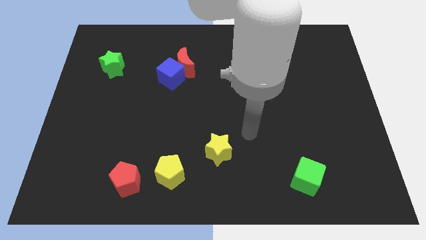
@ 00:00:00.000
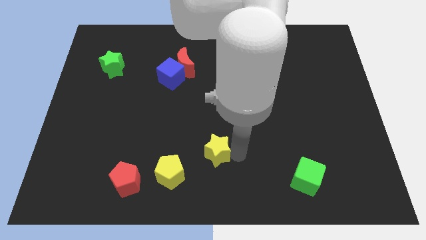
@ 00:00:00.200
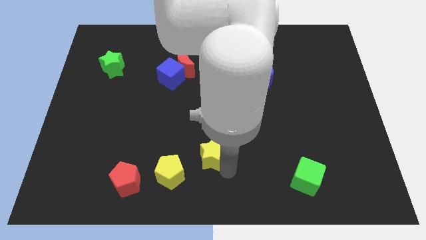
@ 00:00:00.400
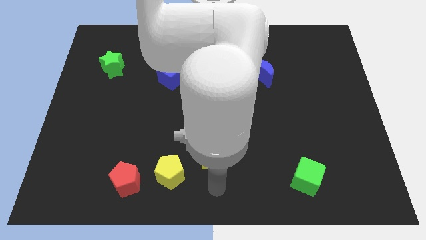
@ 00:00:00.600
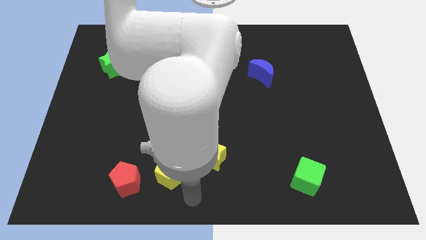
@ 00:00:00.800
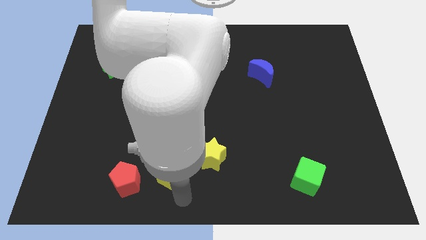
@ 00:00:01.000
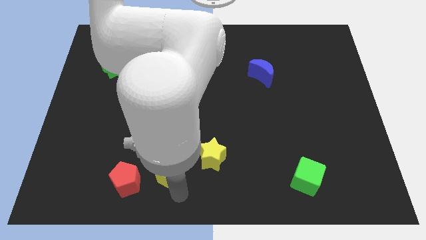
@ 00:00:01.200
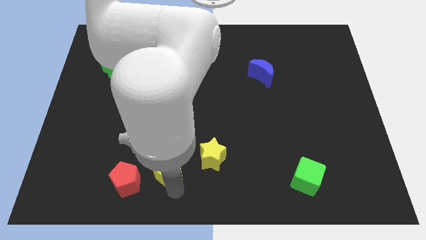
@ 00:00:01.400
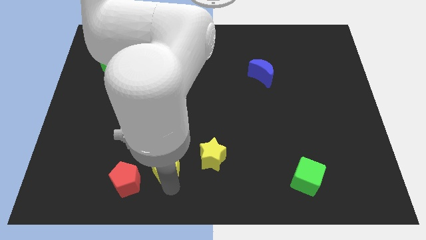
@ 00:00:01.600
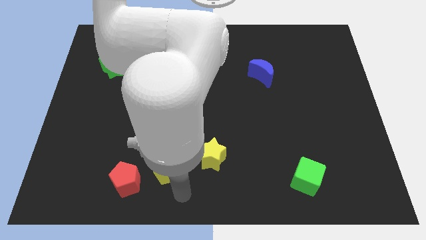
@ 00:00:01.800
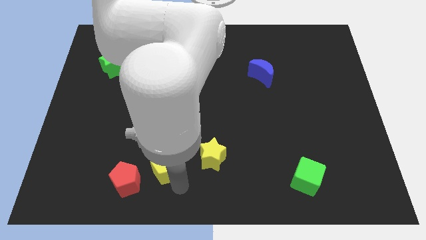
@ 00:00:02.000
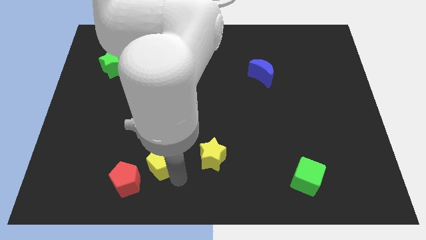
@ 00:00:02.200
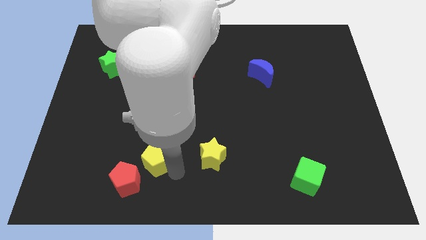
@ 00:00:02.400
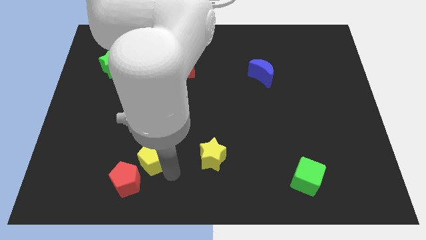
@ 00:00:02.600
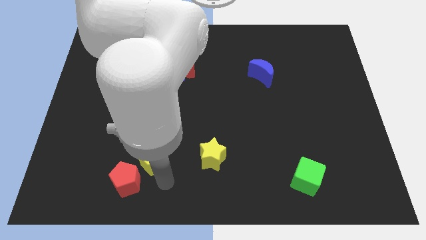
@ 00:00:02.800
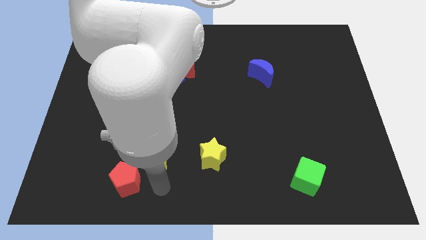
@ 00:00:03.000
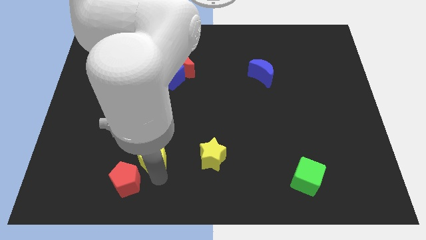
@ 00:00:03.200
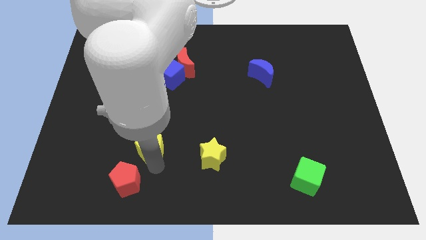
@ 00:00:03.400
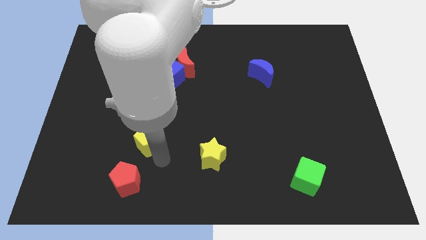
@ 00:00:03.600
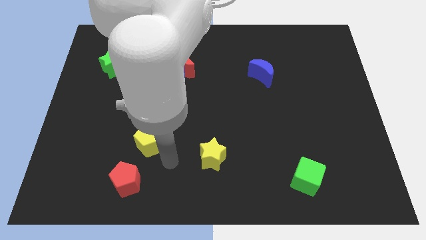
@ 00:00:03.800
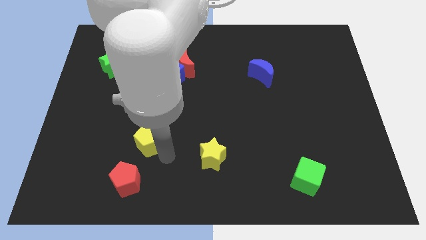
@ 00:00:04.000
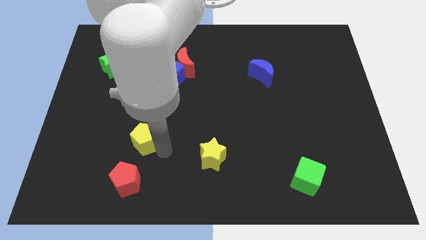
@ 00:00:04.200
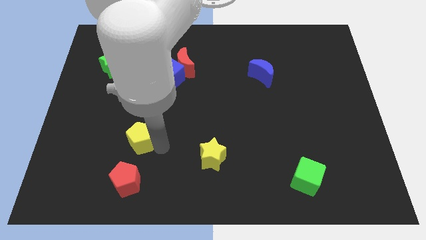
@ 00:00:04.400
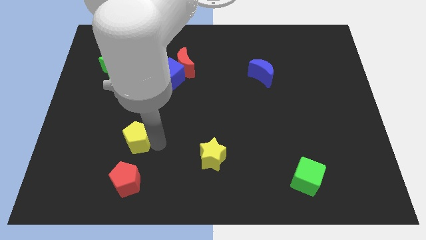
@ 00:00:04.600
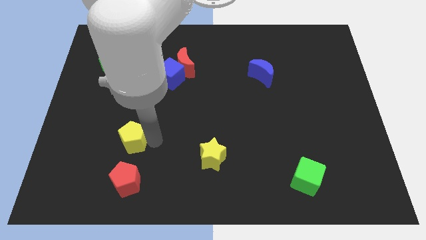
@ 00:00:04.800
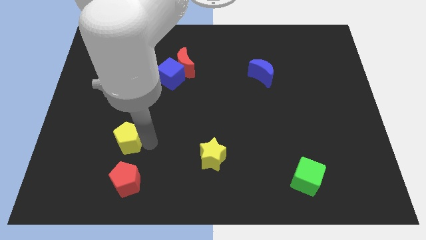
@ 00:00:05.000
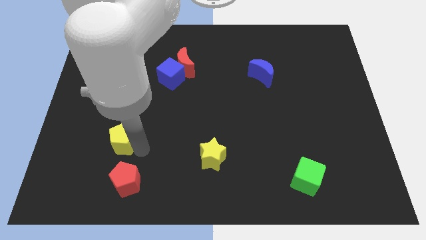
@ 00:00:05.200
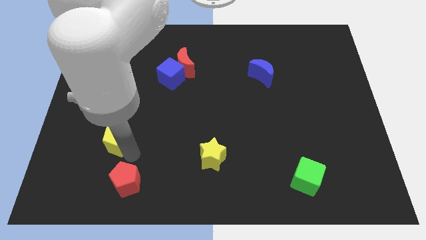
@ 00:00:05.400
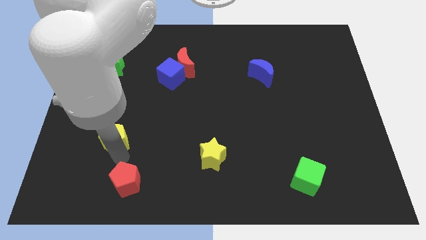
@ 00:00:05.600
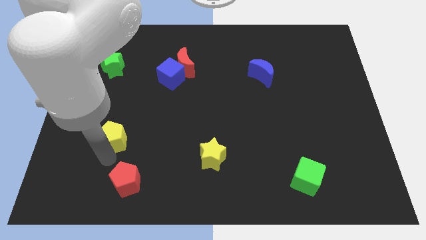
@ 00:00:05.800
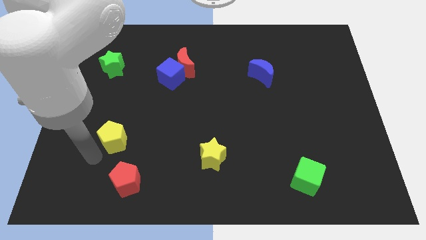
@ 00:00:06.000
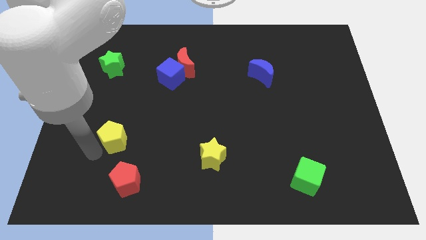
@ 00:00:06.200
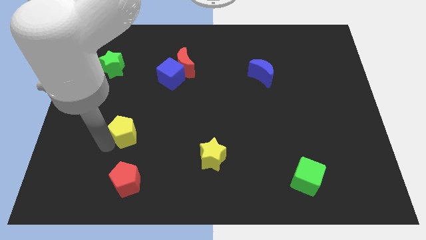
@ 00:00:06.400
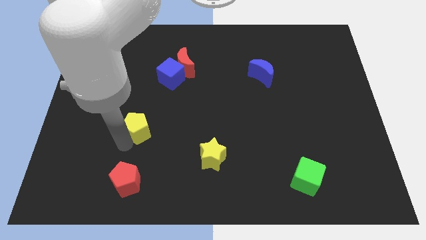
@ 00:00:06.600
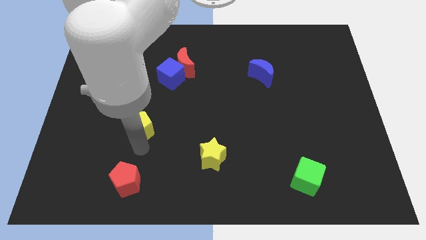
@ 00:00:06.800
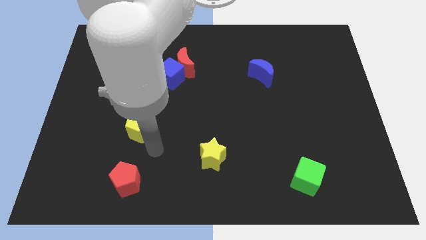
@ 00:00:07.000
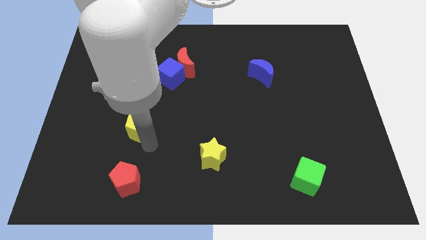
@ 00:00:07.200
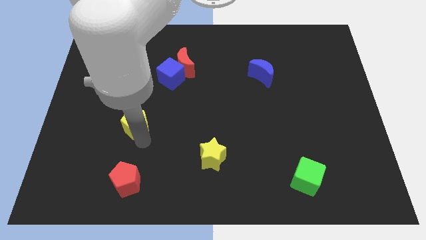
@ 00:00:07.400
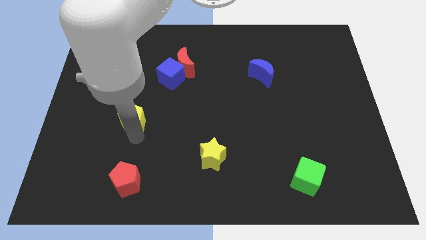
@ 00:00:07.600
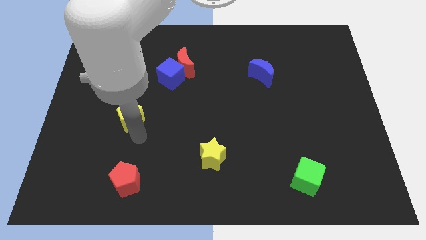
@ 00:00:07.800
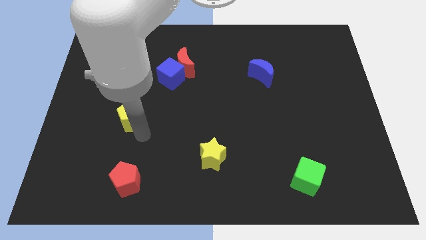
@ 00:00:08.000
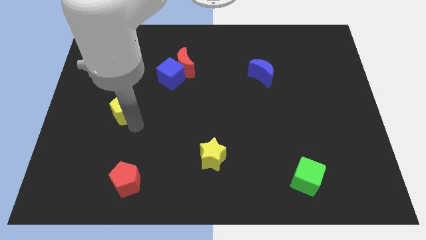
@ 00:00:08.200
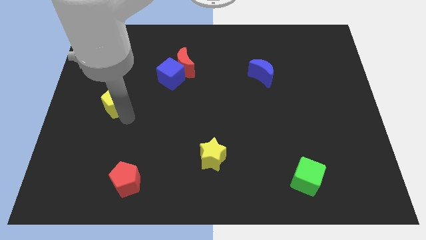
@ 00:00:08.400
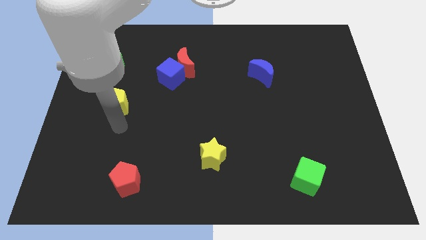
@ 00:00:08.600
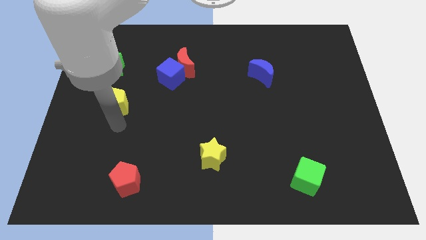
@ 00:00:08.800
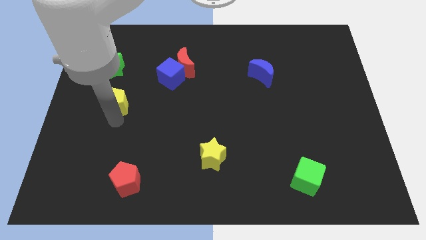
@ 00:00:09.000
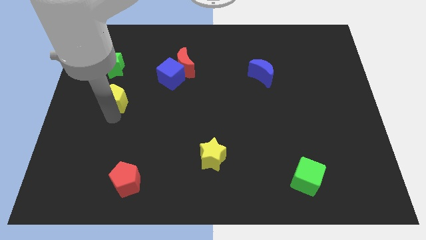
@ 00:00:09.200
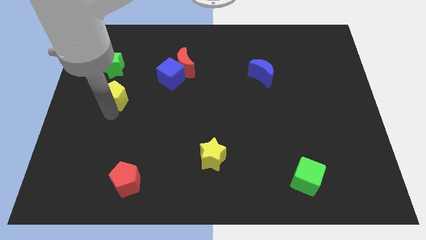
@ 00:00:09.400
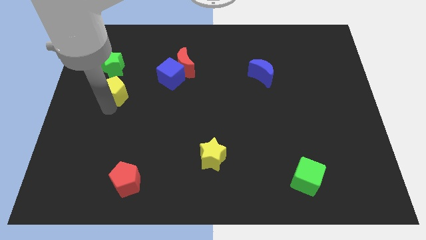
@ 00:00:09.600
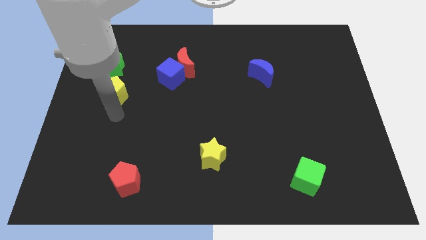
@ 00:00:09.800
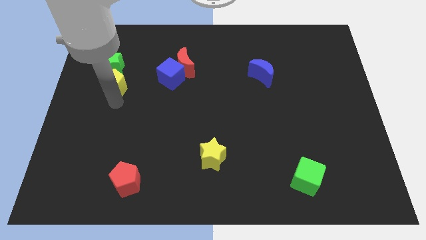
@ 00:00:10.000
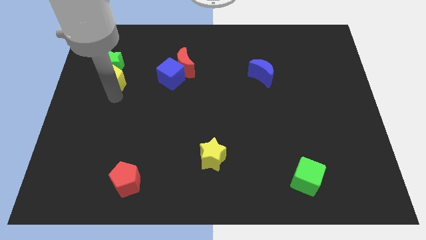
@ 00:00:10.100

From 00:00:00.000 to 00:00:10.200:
slide the yellow pentagon towards the green star

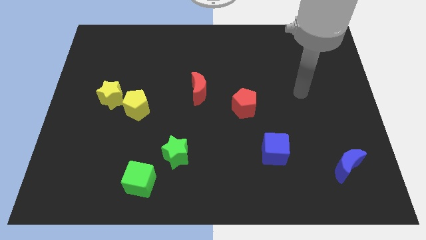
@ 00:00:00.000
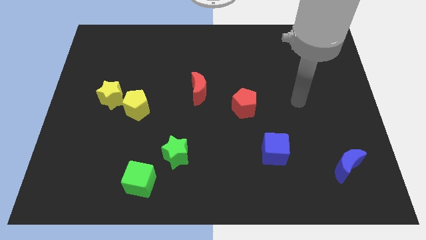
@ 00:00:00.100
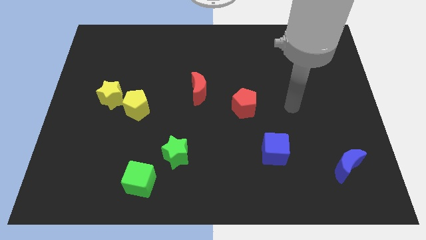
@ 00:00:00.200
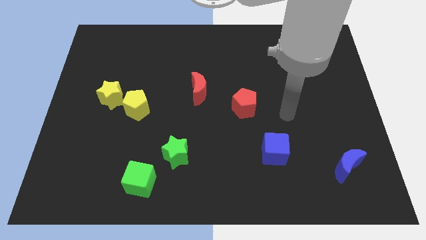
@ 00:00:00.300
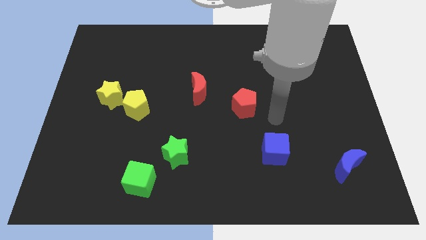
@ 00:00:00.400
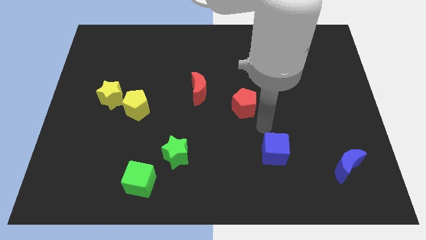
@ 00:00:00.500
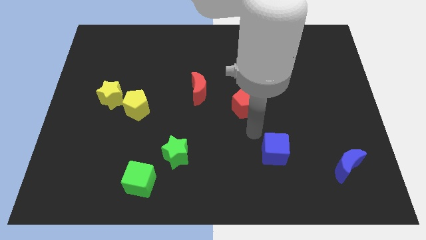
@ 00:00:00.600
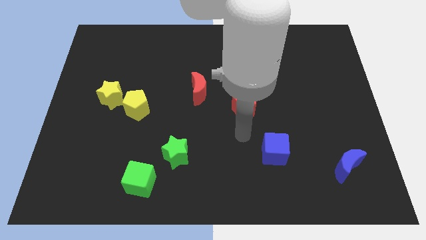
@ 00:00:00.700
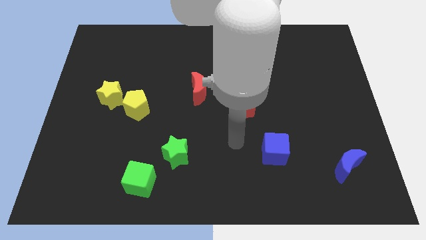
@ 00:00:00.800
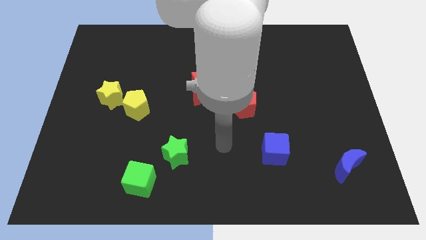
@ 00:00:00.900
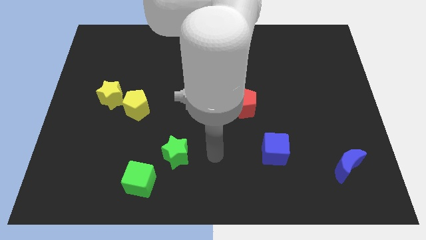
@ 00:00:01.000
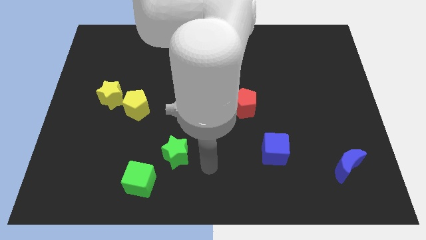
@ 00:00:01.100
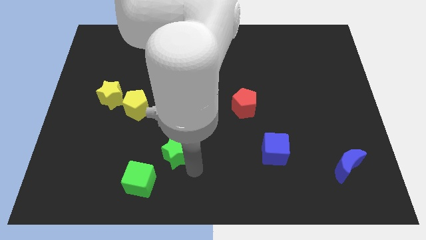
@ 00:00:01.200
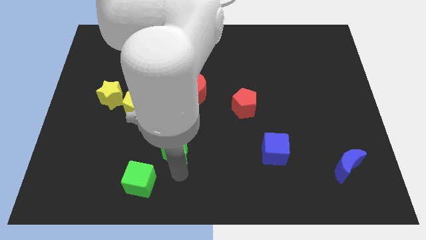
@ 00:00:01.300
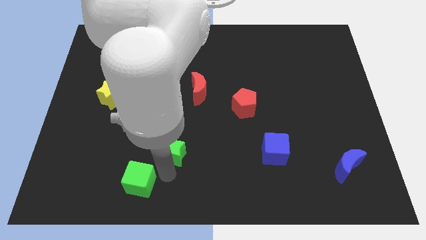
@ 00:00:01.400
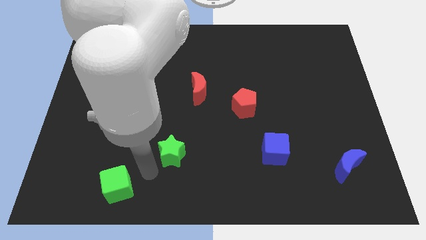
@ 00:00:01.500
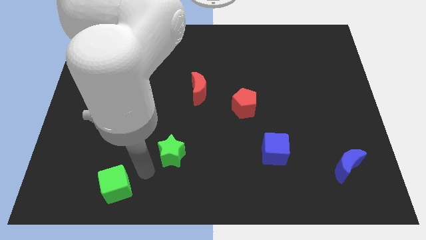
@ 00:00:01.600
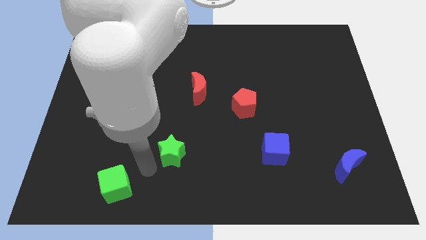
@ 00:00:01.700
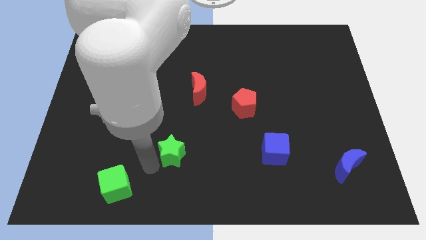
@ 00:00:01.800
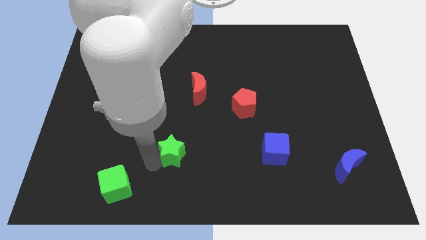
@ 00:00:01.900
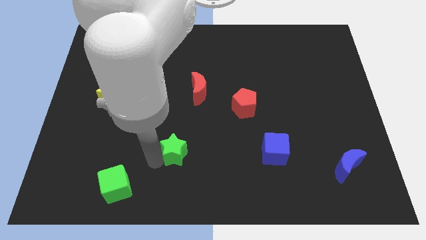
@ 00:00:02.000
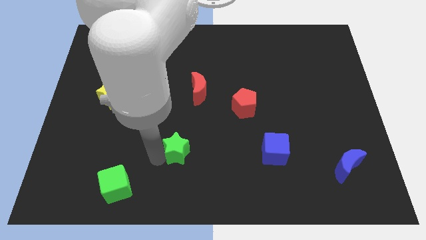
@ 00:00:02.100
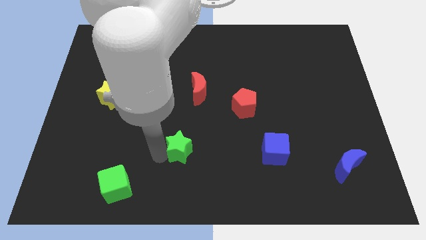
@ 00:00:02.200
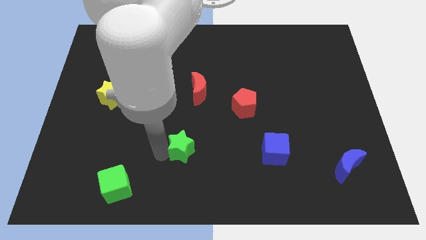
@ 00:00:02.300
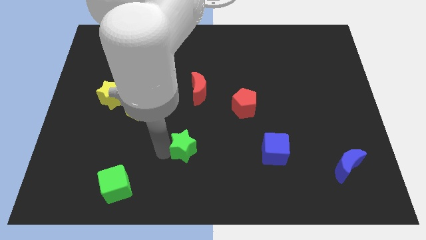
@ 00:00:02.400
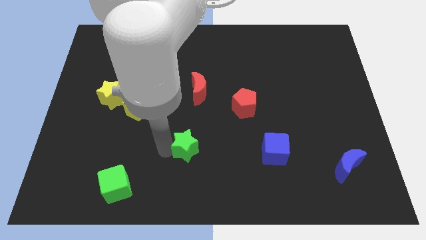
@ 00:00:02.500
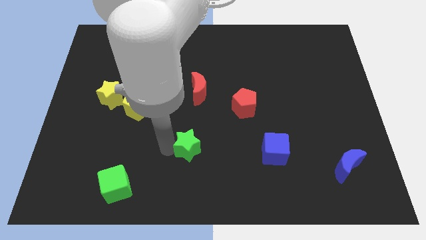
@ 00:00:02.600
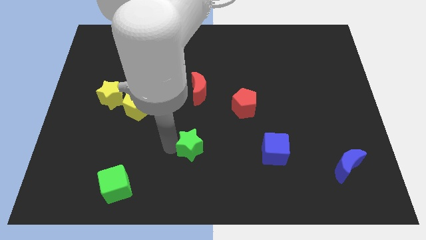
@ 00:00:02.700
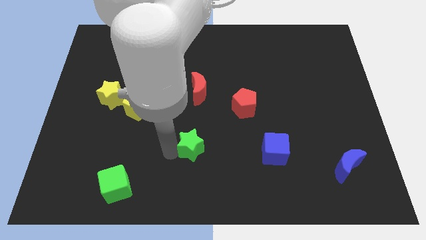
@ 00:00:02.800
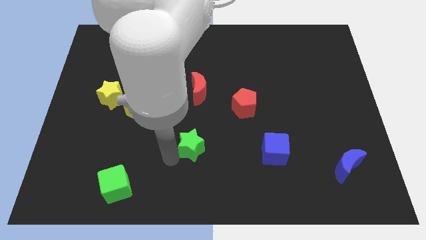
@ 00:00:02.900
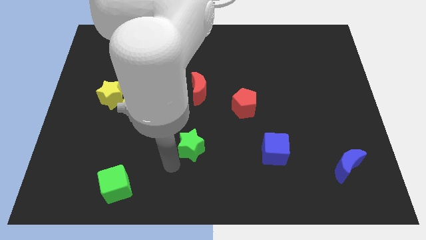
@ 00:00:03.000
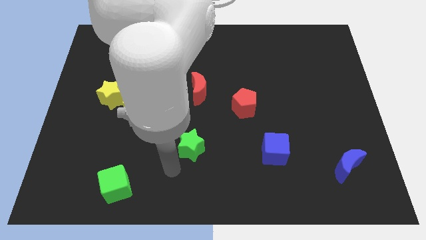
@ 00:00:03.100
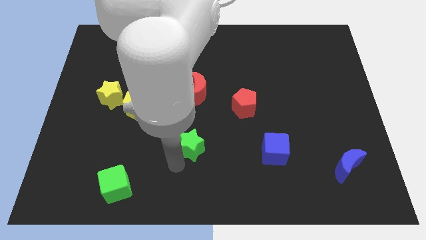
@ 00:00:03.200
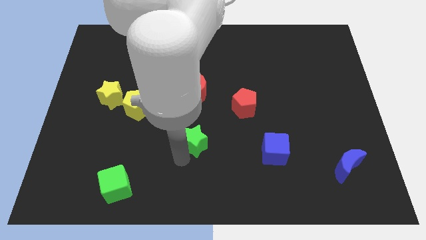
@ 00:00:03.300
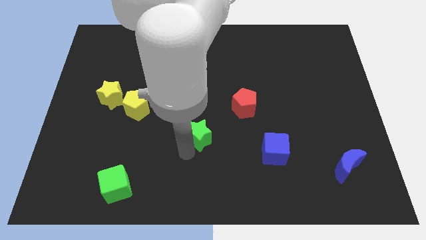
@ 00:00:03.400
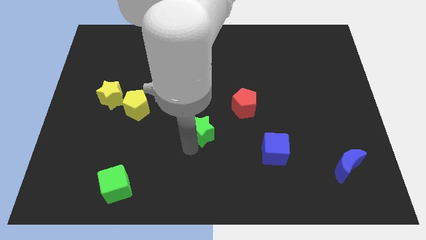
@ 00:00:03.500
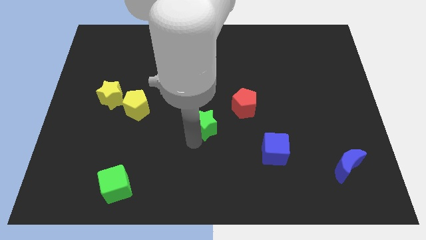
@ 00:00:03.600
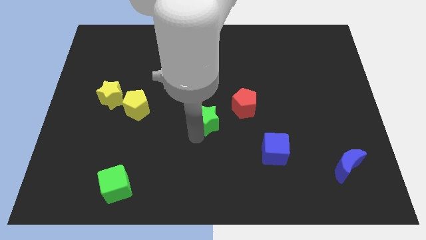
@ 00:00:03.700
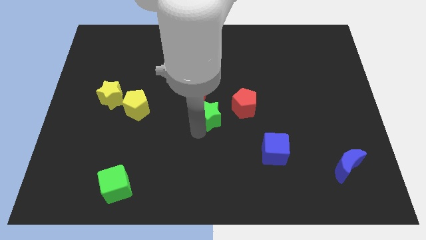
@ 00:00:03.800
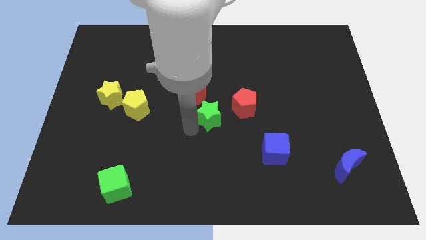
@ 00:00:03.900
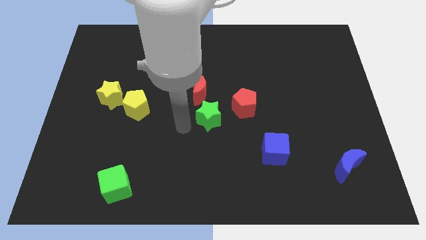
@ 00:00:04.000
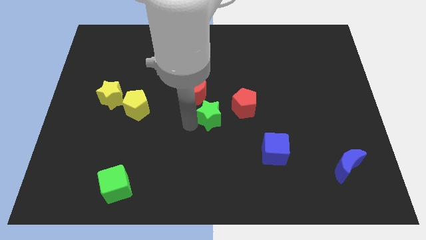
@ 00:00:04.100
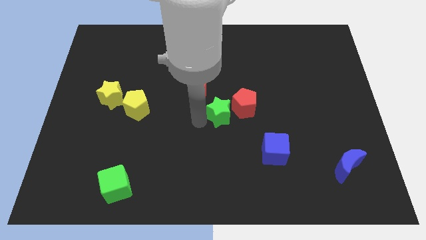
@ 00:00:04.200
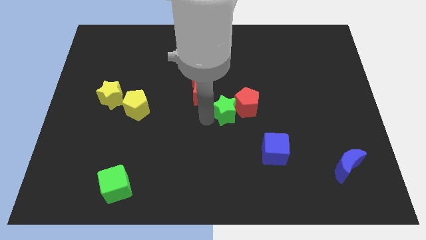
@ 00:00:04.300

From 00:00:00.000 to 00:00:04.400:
slide the green star close to the red pentagon
